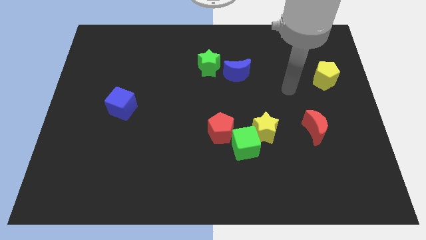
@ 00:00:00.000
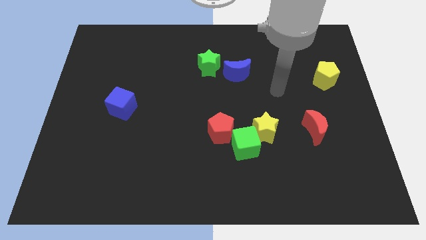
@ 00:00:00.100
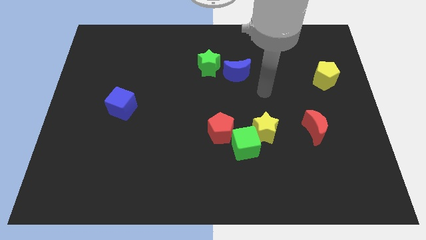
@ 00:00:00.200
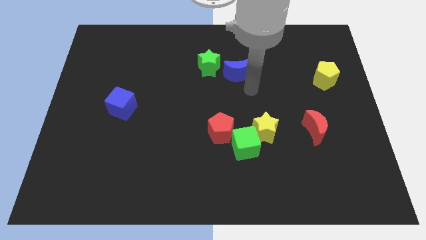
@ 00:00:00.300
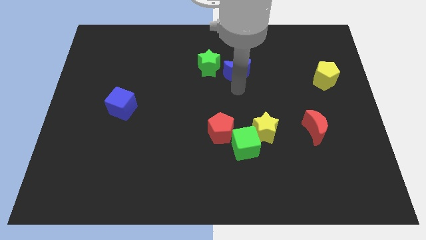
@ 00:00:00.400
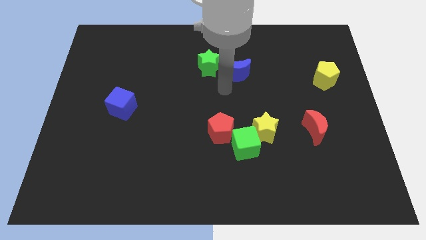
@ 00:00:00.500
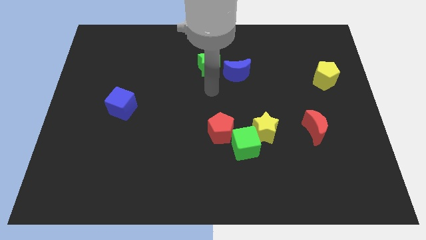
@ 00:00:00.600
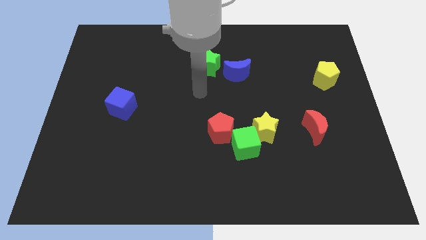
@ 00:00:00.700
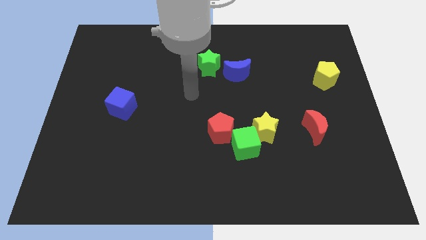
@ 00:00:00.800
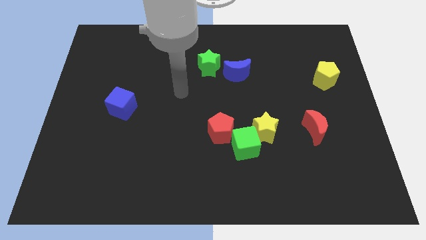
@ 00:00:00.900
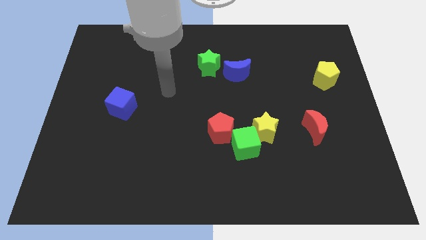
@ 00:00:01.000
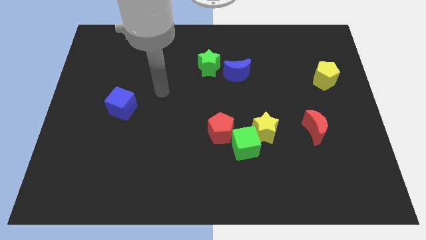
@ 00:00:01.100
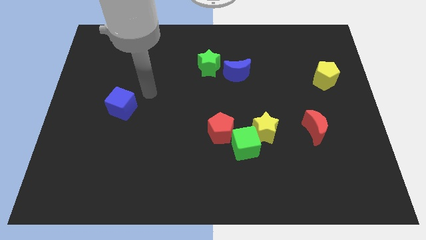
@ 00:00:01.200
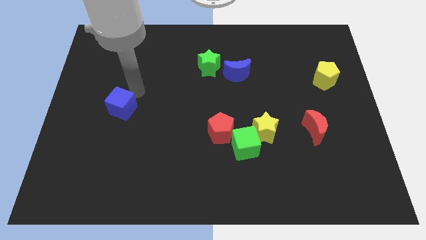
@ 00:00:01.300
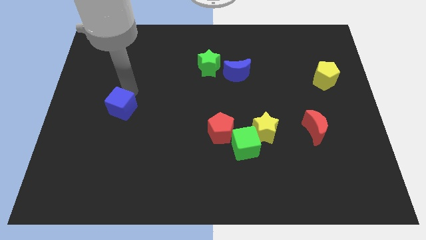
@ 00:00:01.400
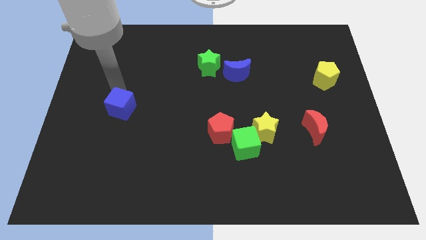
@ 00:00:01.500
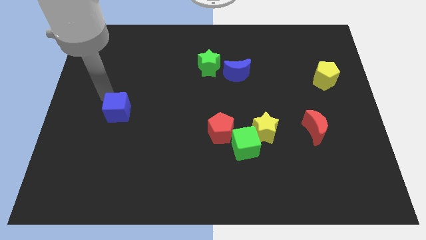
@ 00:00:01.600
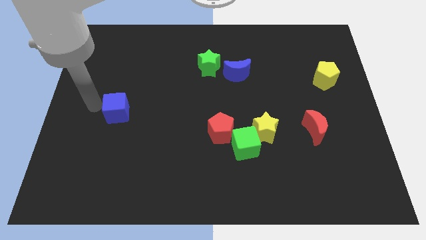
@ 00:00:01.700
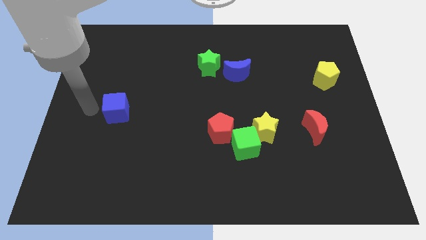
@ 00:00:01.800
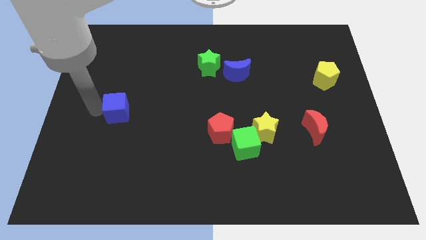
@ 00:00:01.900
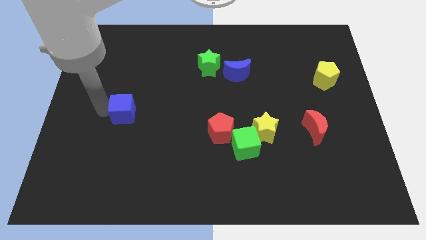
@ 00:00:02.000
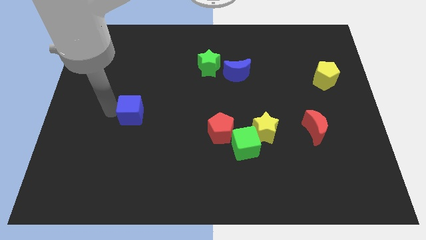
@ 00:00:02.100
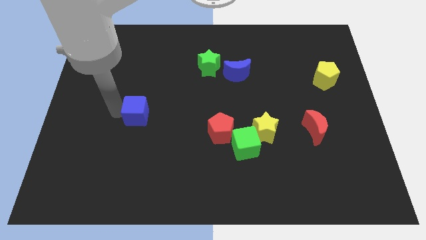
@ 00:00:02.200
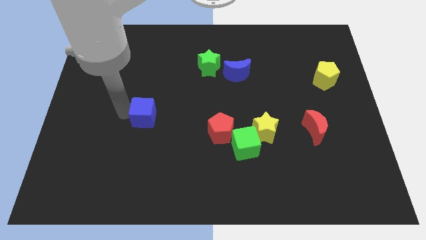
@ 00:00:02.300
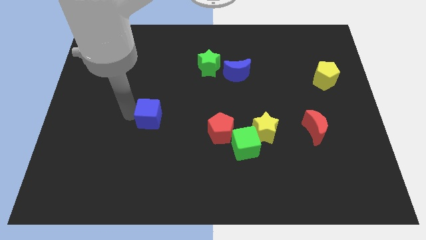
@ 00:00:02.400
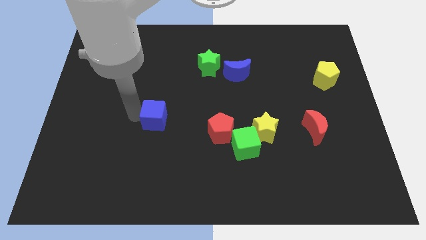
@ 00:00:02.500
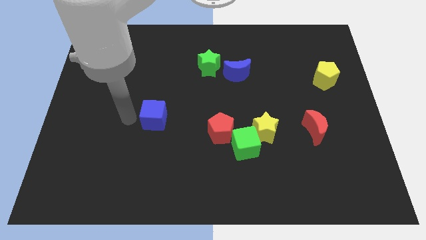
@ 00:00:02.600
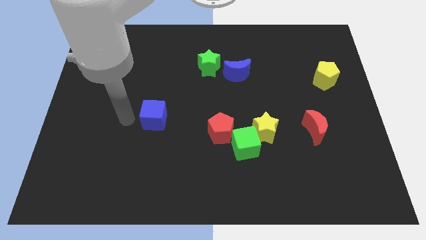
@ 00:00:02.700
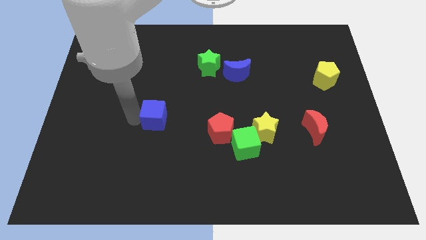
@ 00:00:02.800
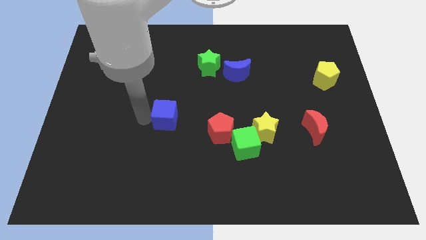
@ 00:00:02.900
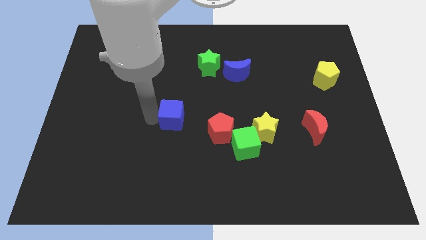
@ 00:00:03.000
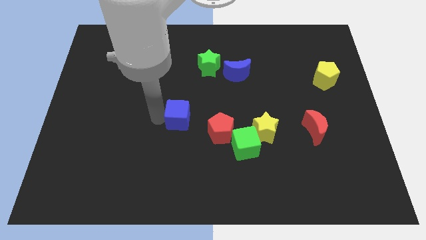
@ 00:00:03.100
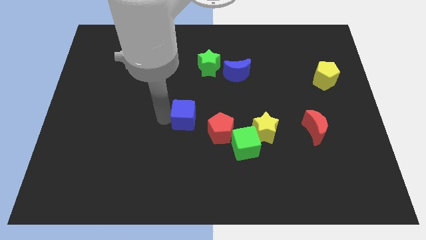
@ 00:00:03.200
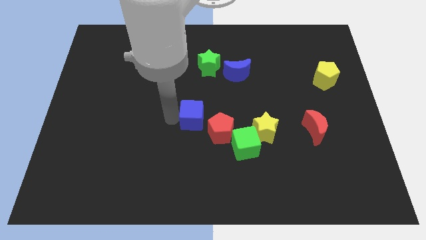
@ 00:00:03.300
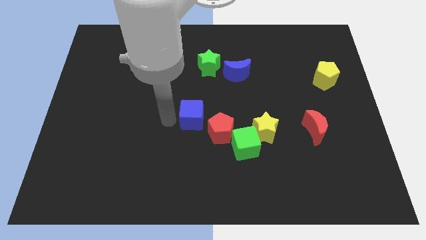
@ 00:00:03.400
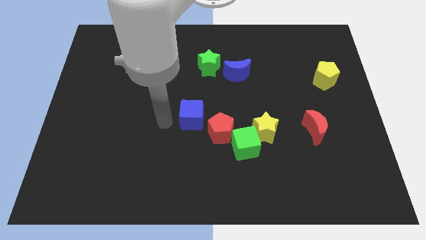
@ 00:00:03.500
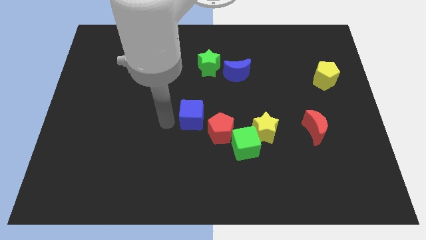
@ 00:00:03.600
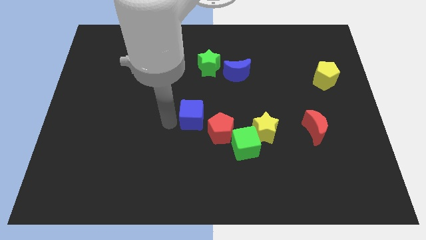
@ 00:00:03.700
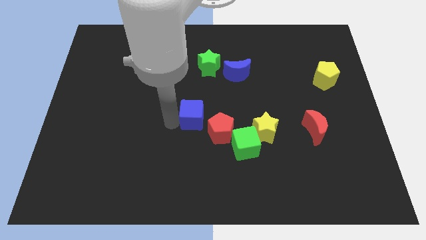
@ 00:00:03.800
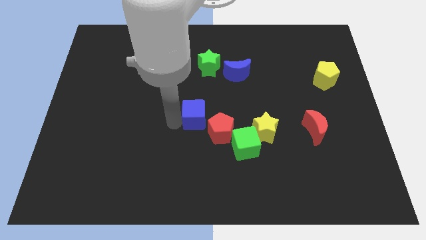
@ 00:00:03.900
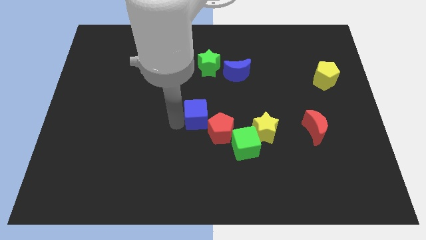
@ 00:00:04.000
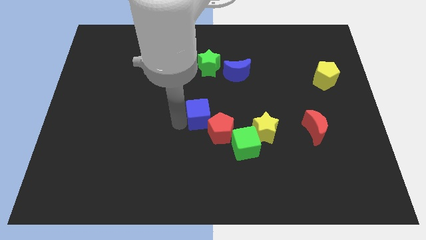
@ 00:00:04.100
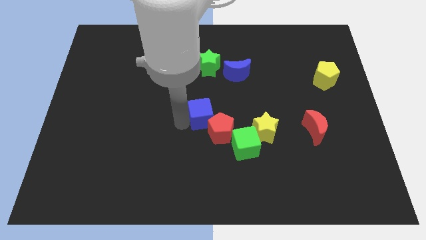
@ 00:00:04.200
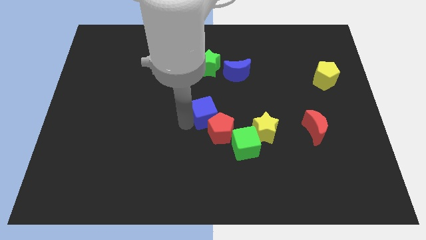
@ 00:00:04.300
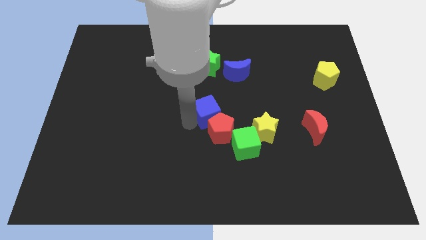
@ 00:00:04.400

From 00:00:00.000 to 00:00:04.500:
push the blue cube right

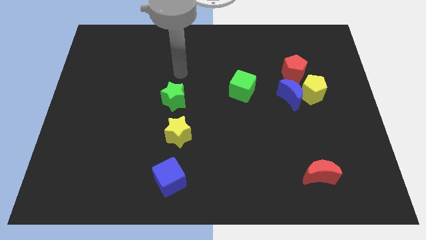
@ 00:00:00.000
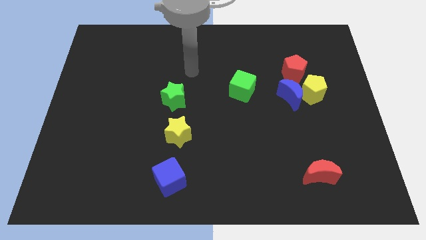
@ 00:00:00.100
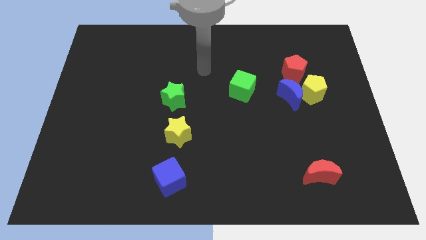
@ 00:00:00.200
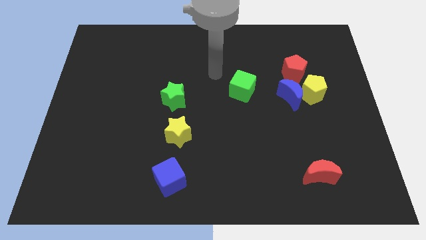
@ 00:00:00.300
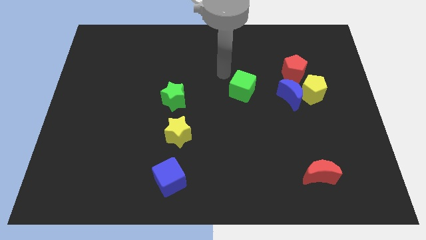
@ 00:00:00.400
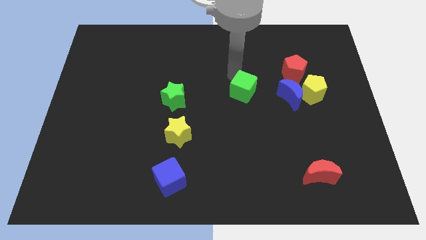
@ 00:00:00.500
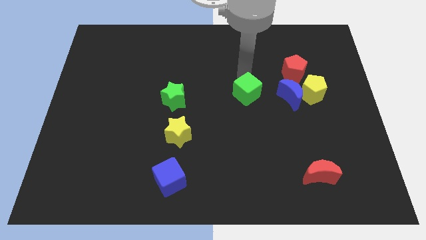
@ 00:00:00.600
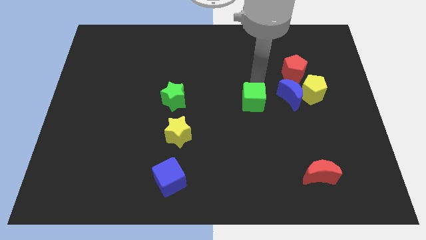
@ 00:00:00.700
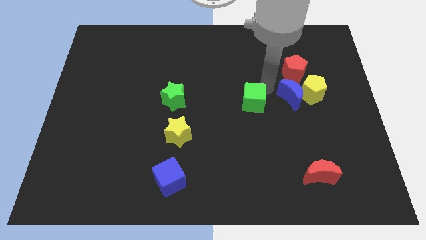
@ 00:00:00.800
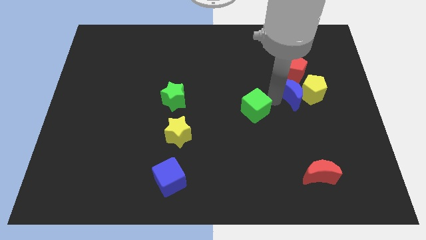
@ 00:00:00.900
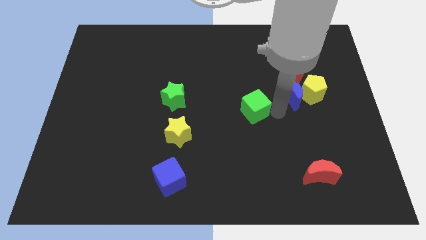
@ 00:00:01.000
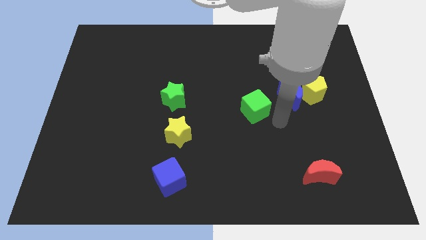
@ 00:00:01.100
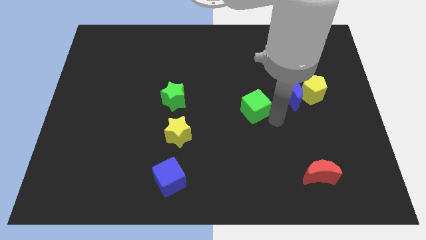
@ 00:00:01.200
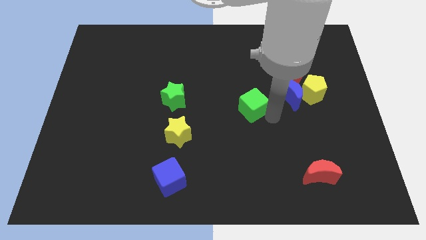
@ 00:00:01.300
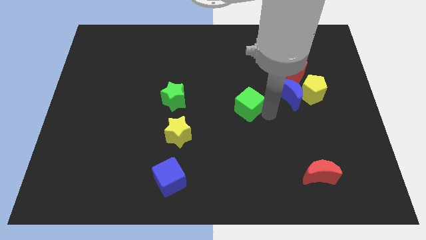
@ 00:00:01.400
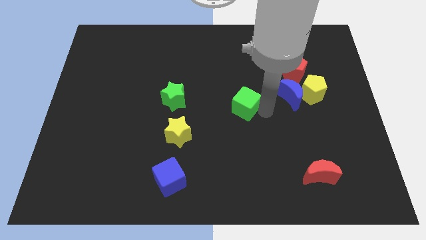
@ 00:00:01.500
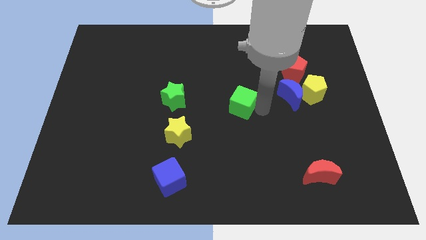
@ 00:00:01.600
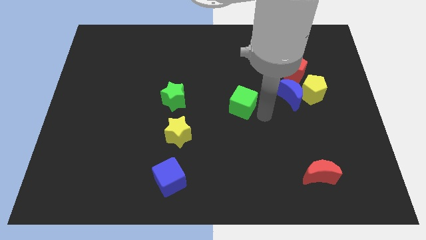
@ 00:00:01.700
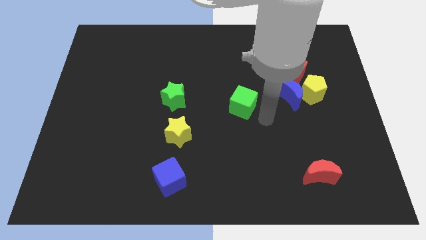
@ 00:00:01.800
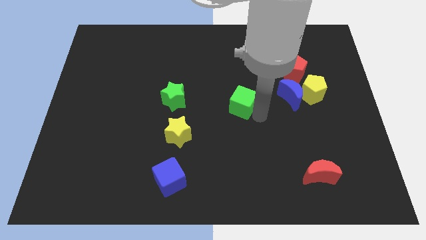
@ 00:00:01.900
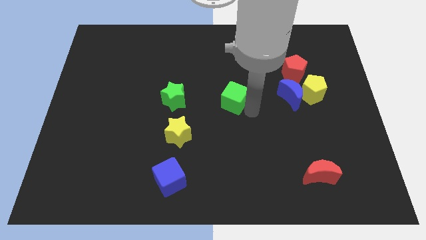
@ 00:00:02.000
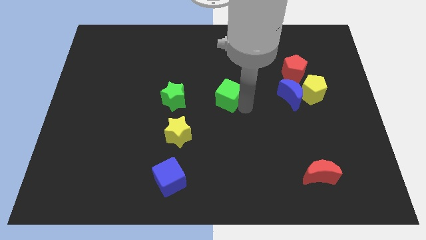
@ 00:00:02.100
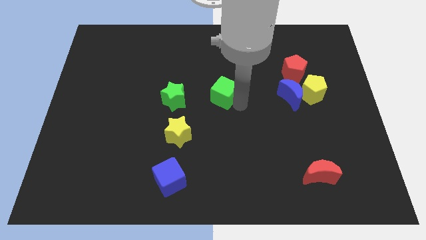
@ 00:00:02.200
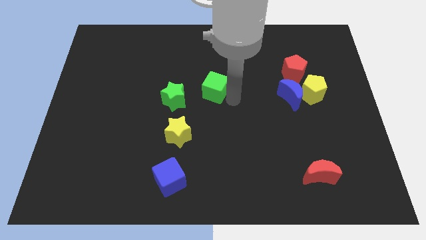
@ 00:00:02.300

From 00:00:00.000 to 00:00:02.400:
push the green cube to the left a little

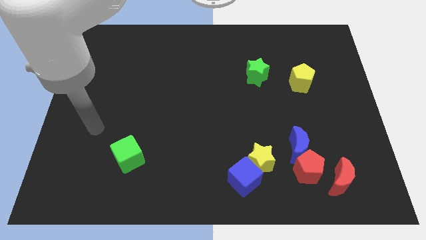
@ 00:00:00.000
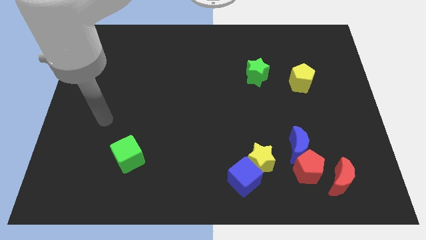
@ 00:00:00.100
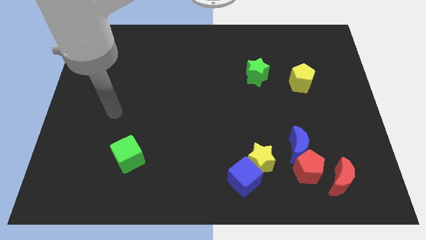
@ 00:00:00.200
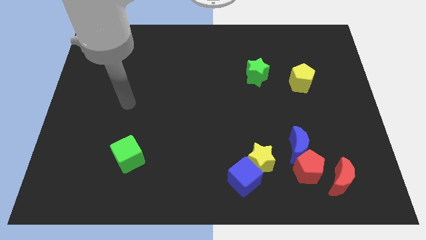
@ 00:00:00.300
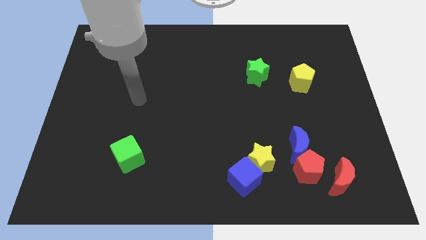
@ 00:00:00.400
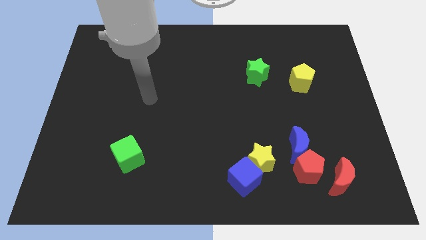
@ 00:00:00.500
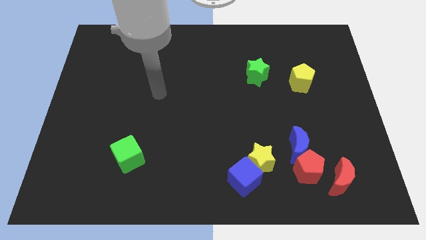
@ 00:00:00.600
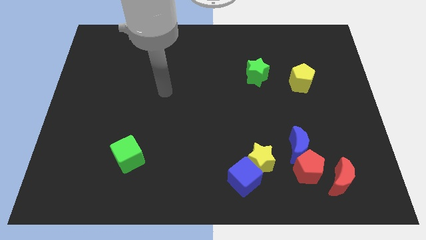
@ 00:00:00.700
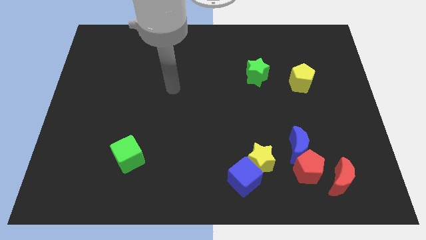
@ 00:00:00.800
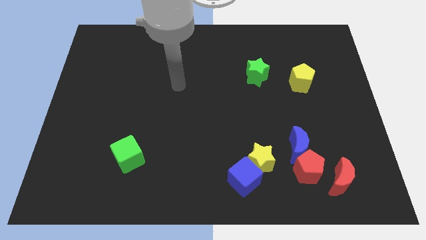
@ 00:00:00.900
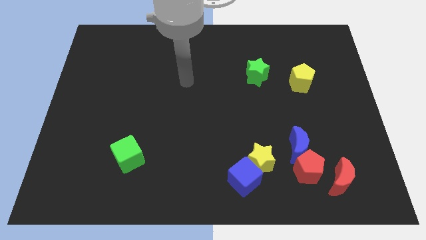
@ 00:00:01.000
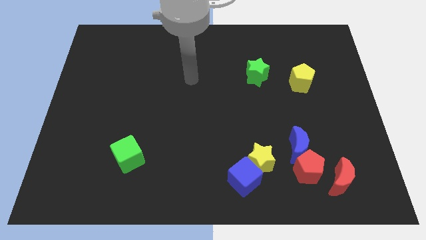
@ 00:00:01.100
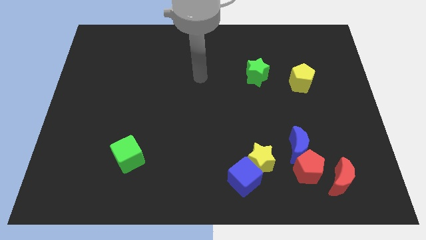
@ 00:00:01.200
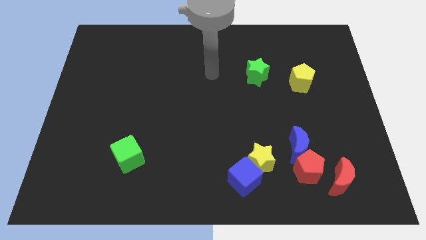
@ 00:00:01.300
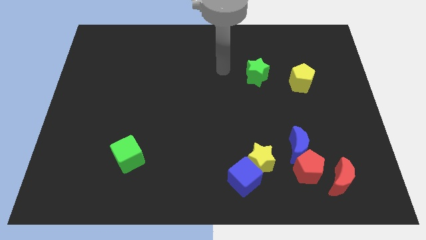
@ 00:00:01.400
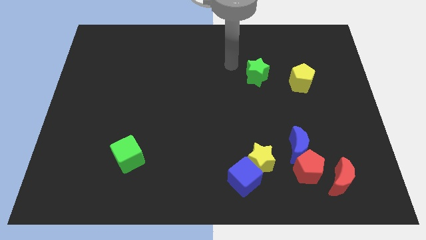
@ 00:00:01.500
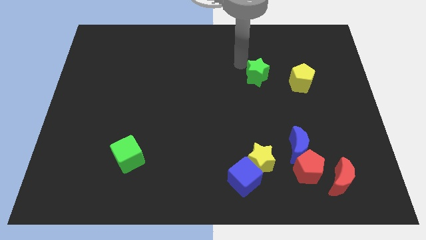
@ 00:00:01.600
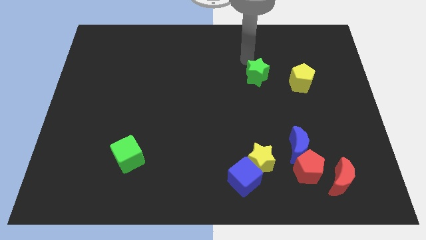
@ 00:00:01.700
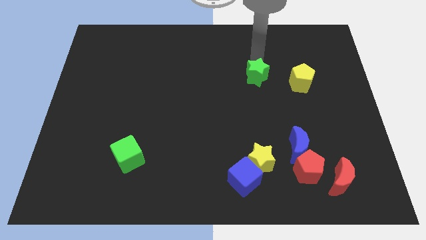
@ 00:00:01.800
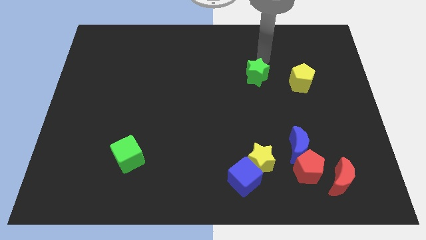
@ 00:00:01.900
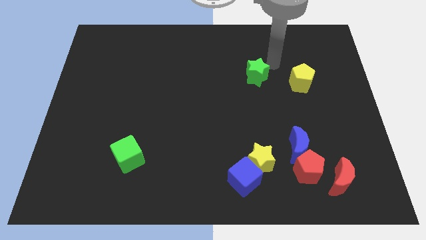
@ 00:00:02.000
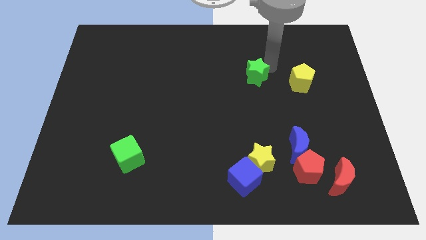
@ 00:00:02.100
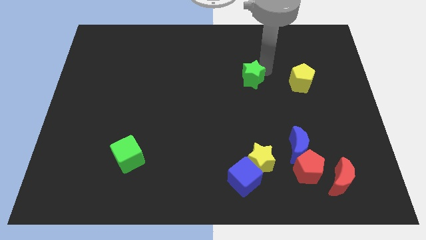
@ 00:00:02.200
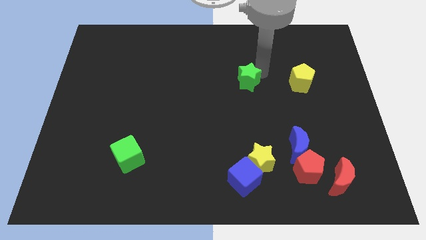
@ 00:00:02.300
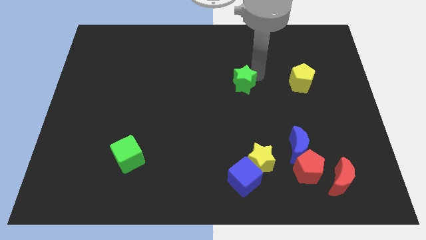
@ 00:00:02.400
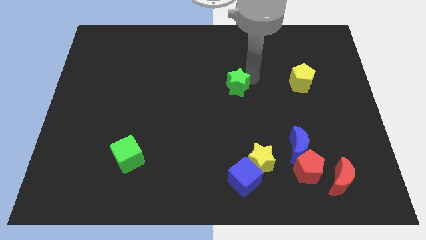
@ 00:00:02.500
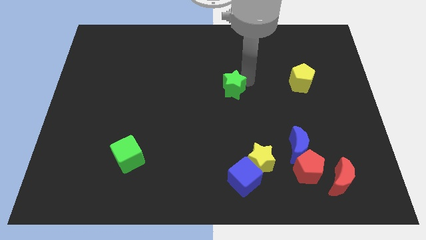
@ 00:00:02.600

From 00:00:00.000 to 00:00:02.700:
slide the green star a little bit down and left
